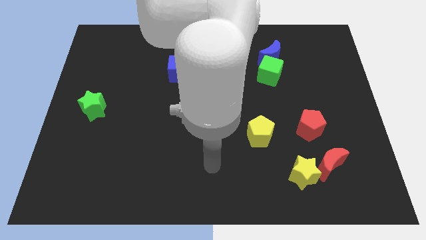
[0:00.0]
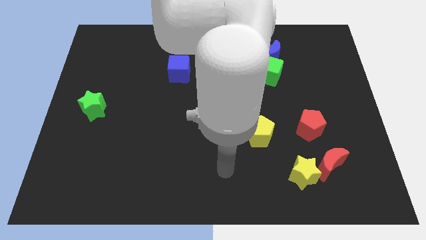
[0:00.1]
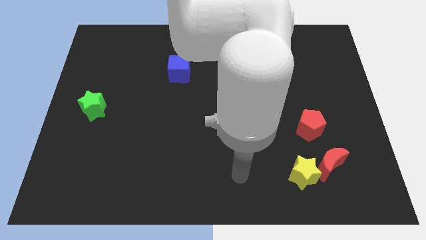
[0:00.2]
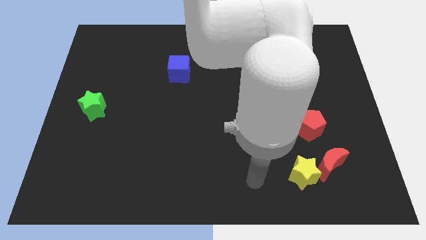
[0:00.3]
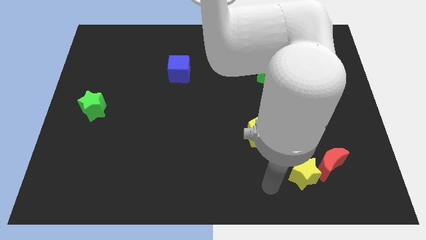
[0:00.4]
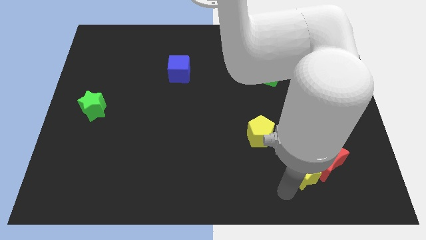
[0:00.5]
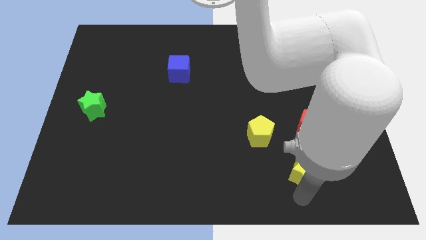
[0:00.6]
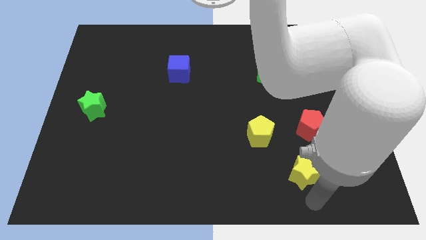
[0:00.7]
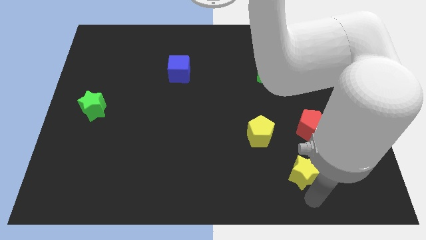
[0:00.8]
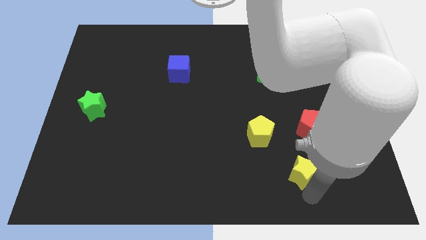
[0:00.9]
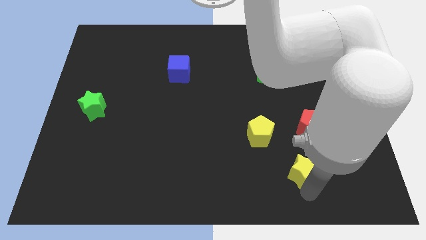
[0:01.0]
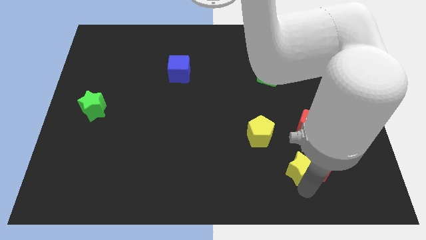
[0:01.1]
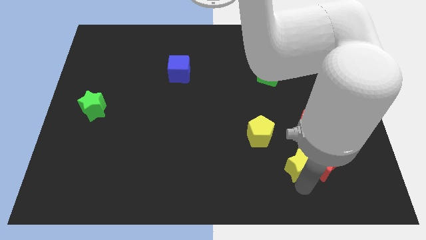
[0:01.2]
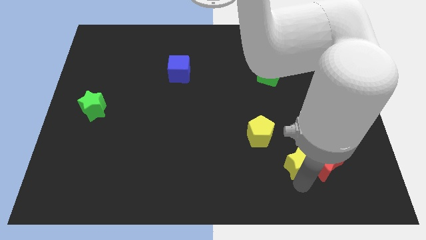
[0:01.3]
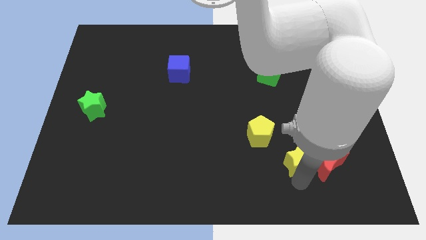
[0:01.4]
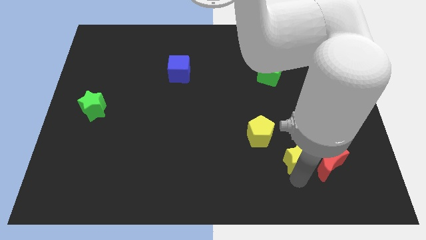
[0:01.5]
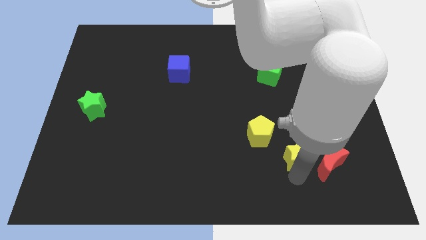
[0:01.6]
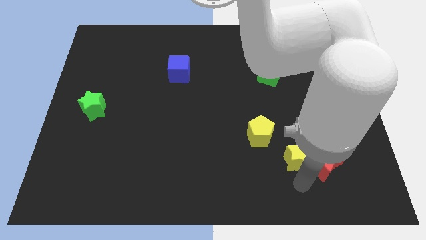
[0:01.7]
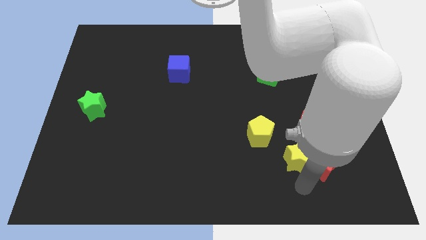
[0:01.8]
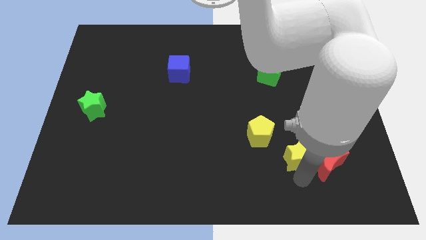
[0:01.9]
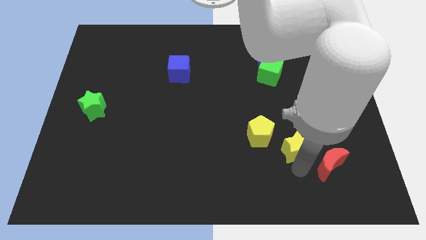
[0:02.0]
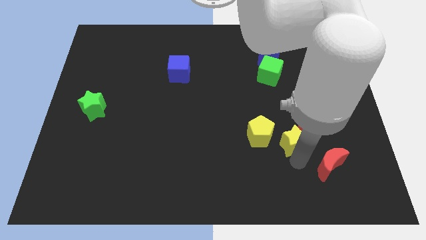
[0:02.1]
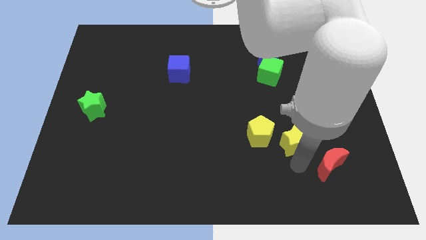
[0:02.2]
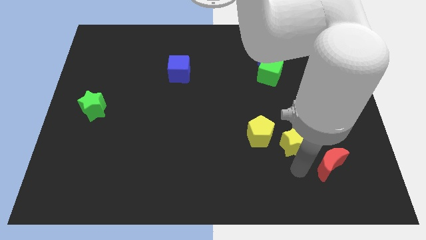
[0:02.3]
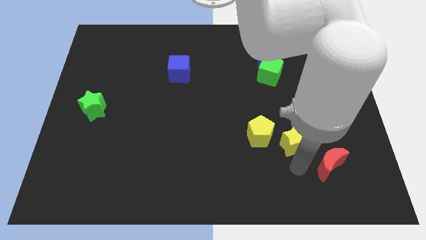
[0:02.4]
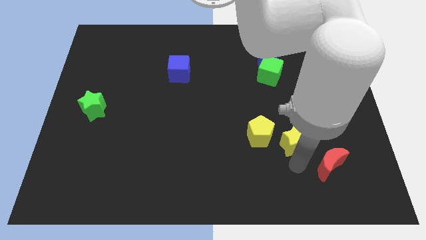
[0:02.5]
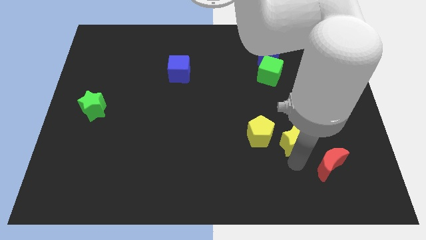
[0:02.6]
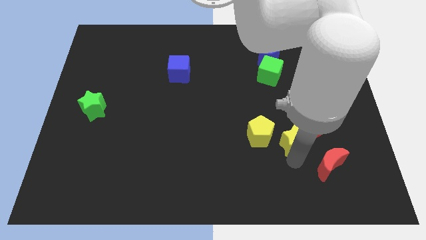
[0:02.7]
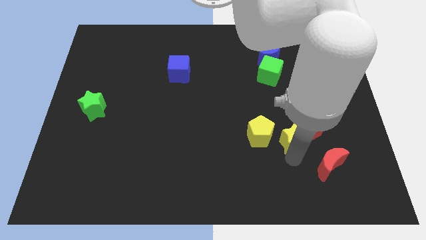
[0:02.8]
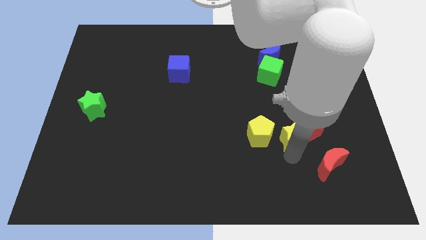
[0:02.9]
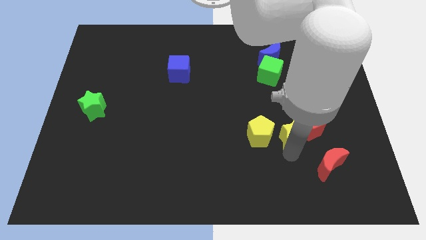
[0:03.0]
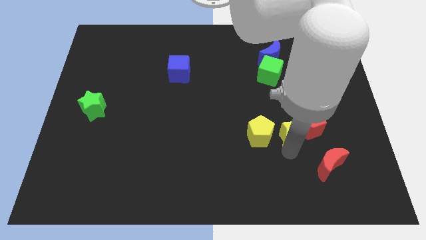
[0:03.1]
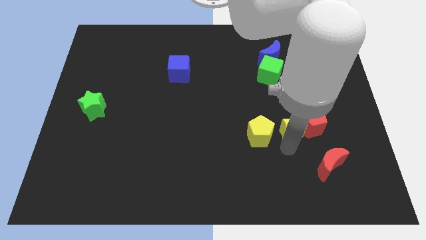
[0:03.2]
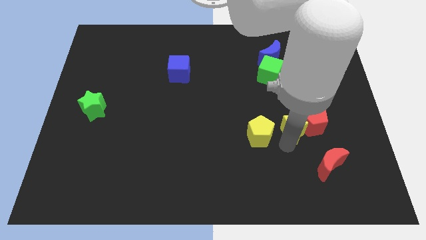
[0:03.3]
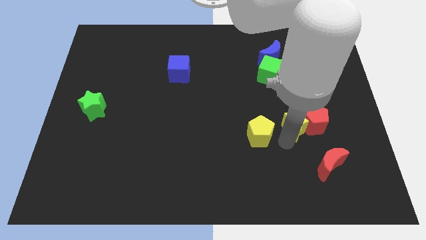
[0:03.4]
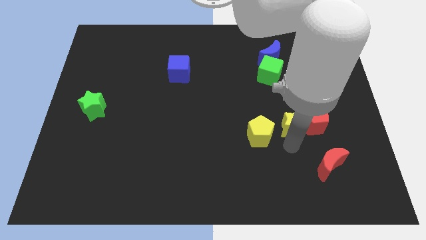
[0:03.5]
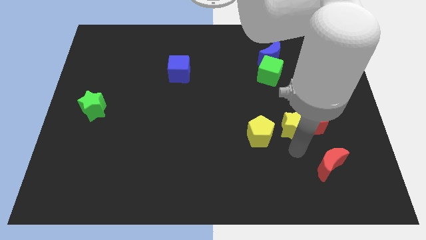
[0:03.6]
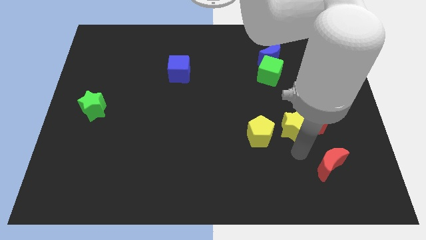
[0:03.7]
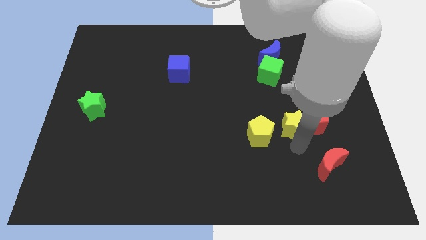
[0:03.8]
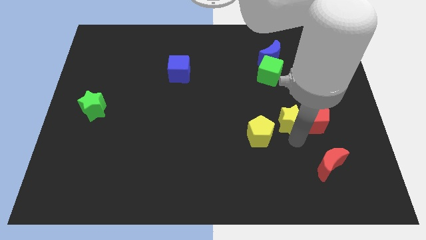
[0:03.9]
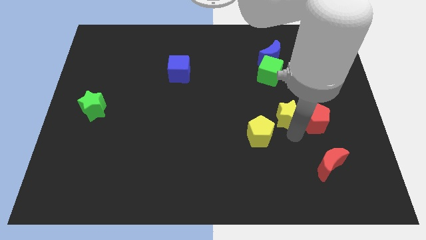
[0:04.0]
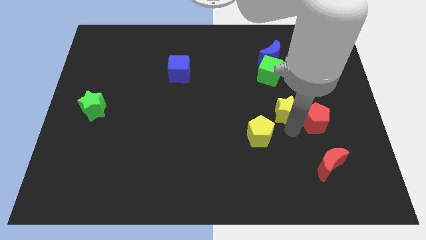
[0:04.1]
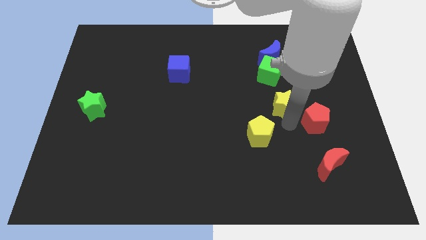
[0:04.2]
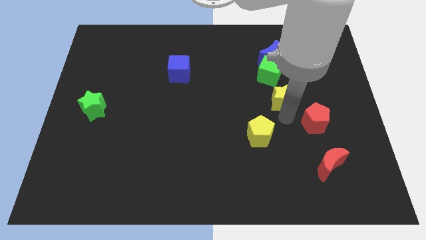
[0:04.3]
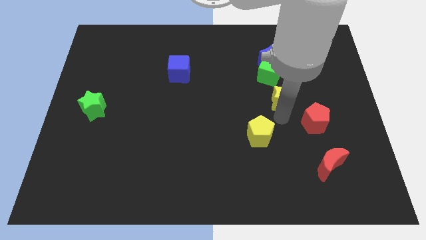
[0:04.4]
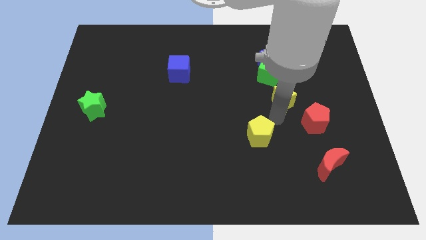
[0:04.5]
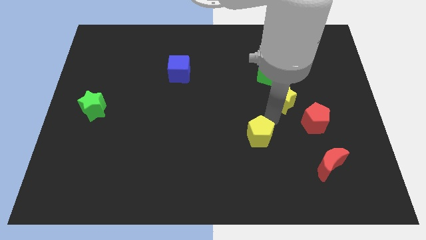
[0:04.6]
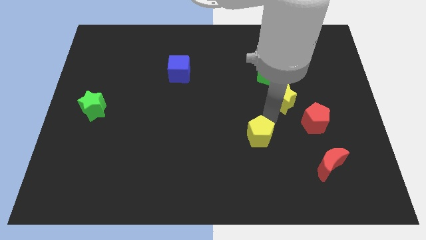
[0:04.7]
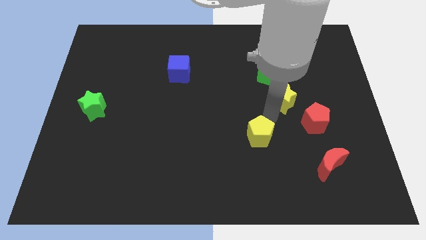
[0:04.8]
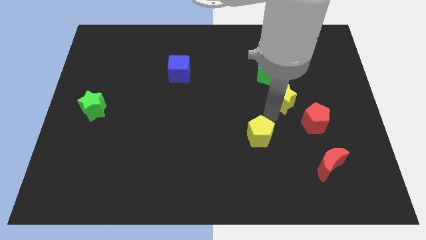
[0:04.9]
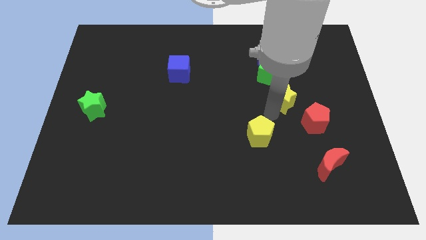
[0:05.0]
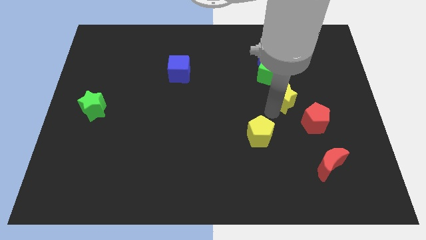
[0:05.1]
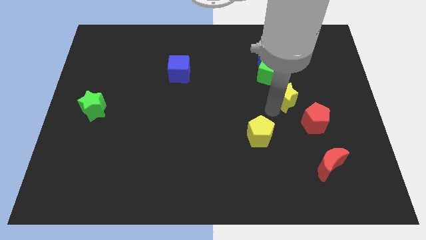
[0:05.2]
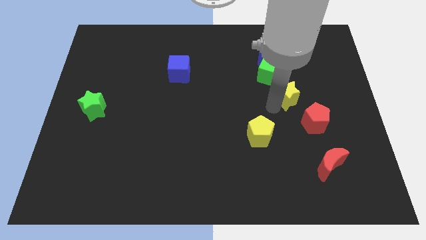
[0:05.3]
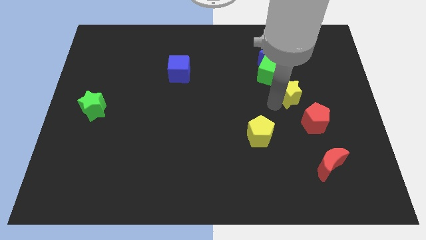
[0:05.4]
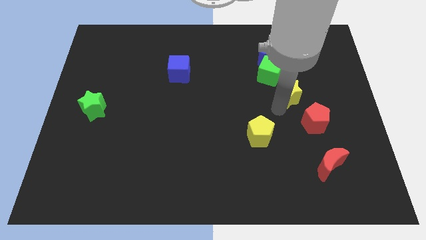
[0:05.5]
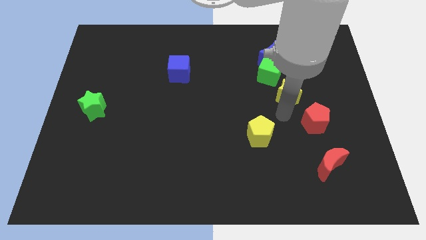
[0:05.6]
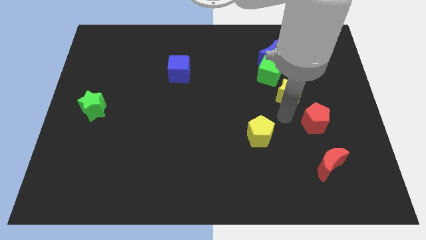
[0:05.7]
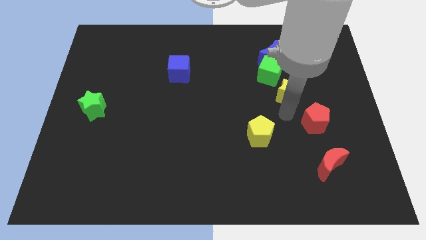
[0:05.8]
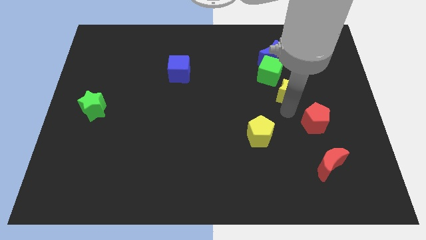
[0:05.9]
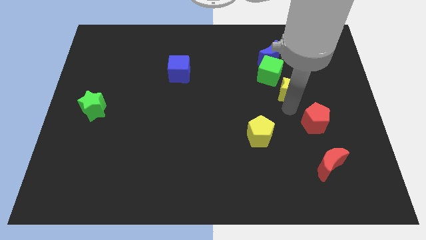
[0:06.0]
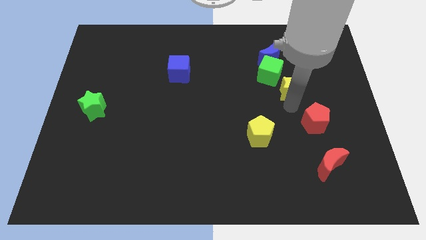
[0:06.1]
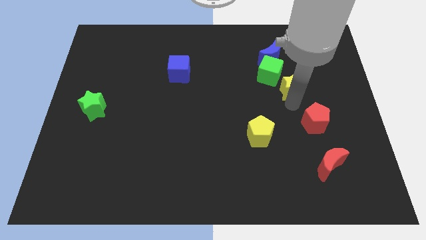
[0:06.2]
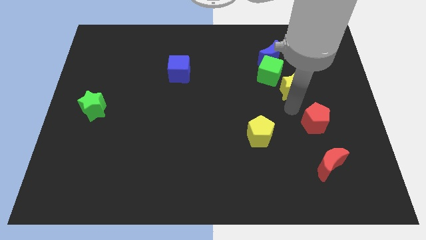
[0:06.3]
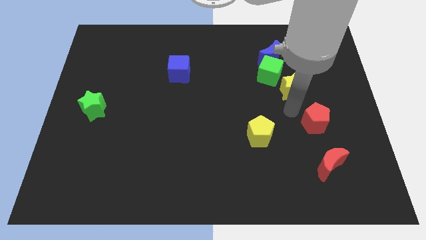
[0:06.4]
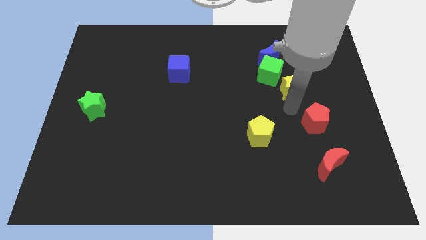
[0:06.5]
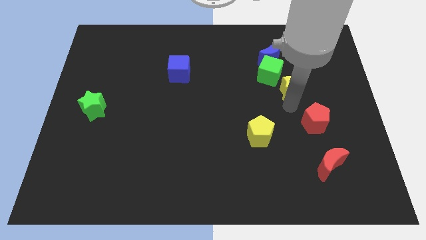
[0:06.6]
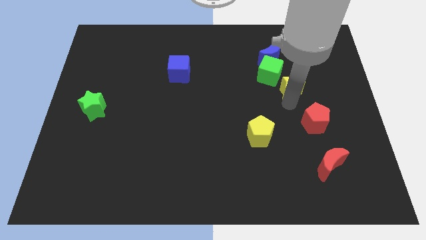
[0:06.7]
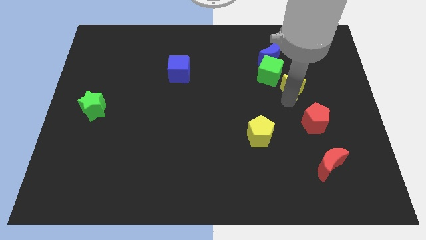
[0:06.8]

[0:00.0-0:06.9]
push the yellow star to the bottom right of the blue moon

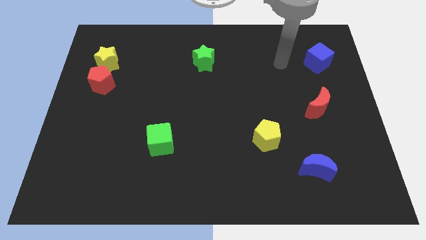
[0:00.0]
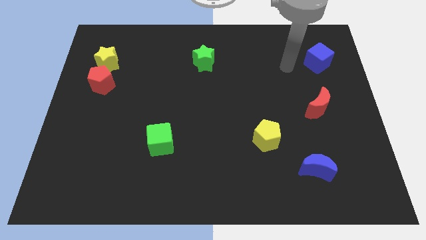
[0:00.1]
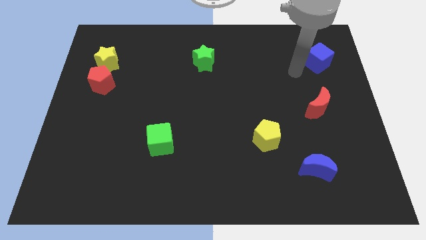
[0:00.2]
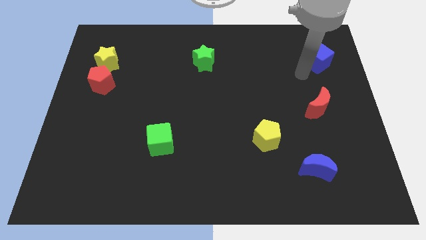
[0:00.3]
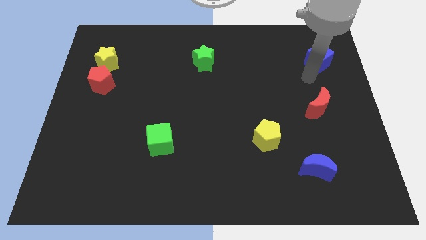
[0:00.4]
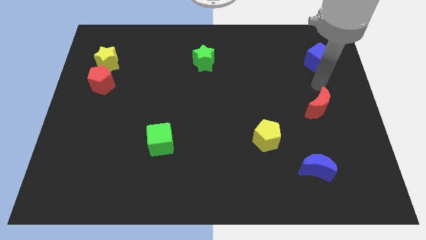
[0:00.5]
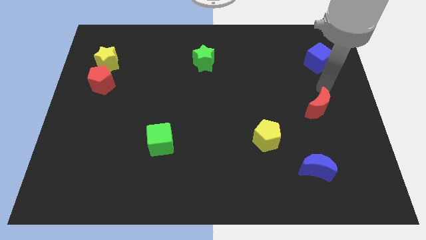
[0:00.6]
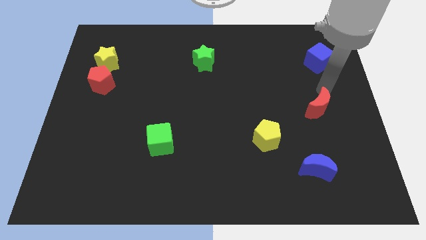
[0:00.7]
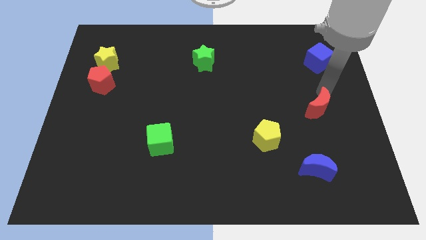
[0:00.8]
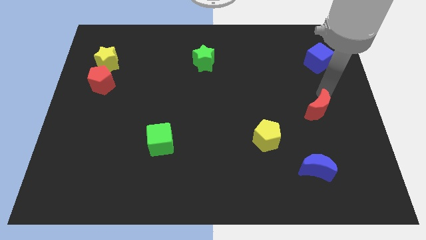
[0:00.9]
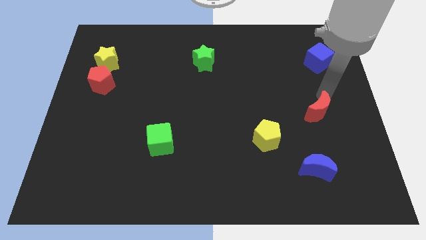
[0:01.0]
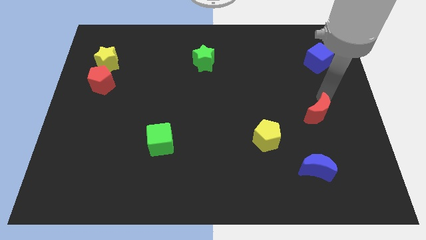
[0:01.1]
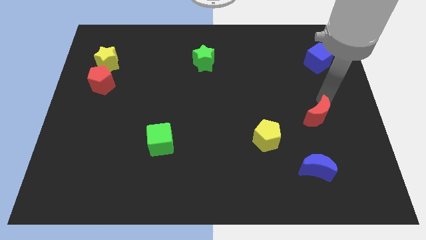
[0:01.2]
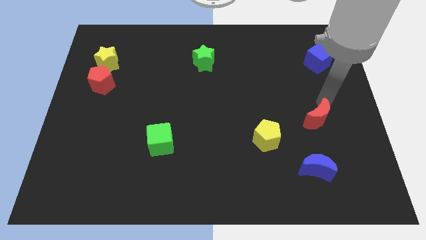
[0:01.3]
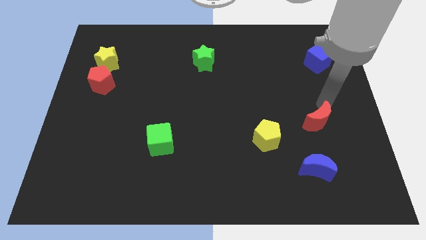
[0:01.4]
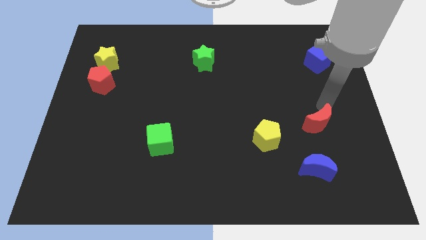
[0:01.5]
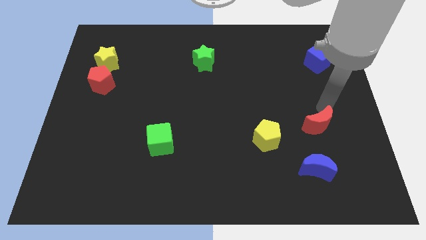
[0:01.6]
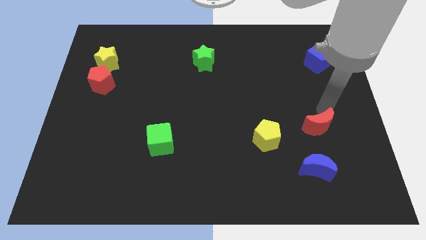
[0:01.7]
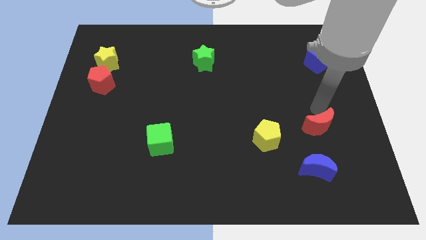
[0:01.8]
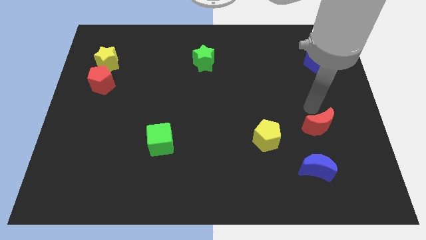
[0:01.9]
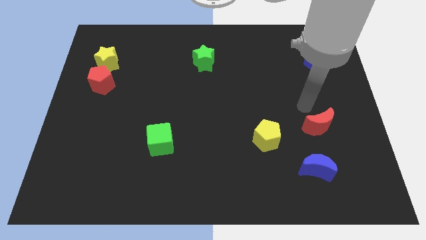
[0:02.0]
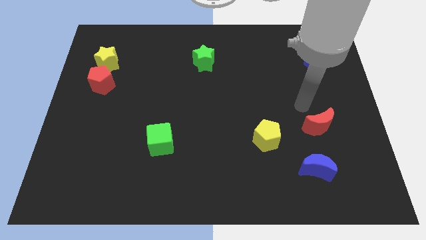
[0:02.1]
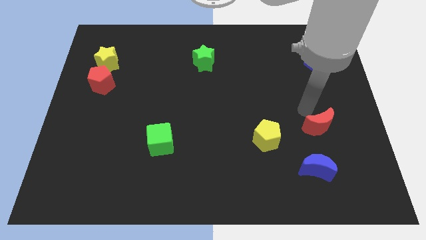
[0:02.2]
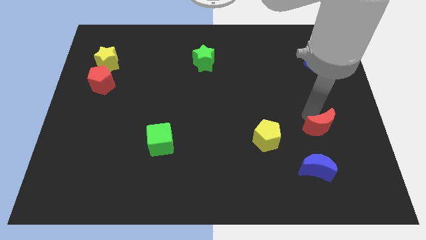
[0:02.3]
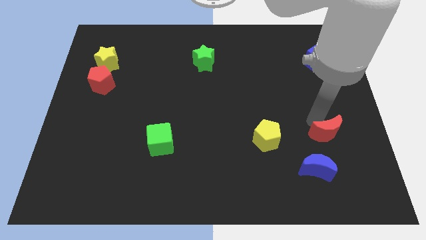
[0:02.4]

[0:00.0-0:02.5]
push the red moon to the top right of the blue moon
